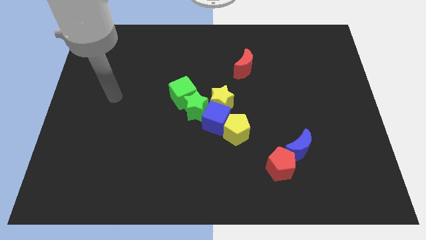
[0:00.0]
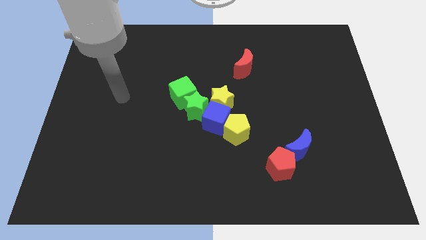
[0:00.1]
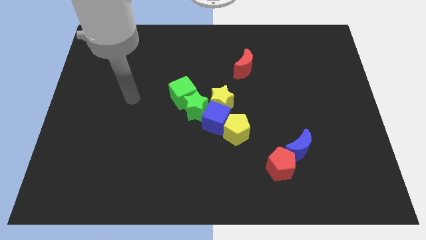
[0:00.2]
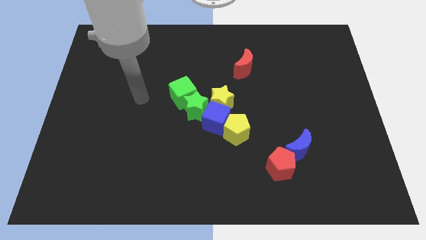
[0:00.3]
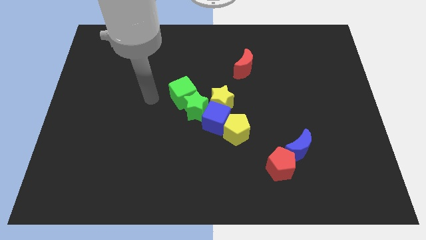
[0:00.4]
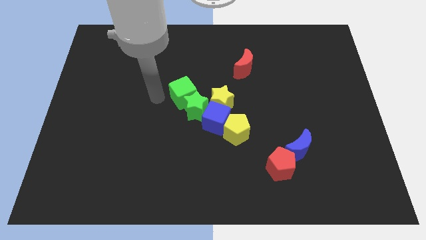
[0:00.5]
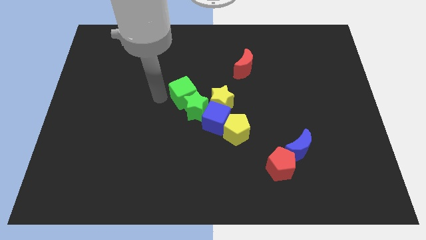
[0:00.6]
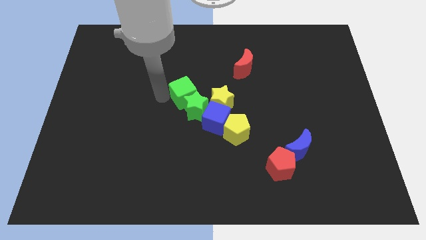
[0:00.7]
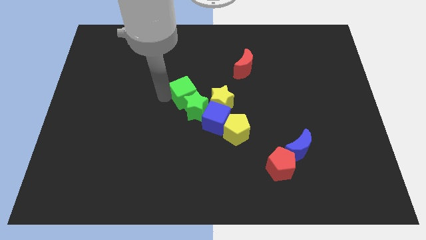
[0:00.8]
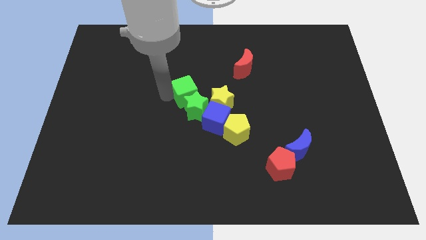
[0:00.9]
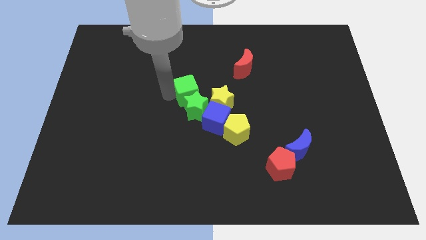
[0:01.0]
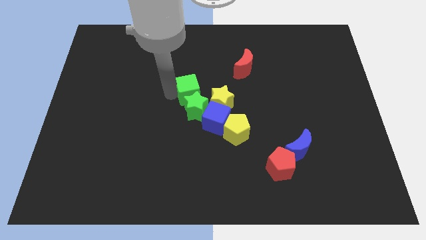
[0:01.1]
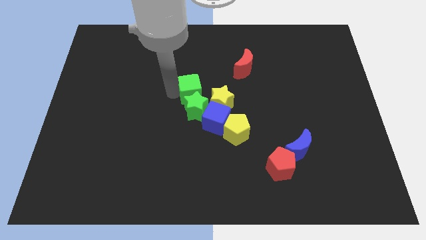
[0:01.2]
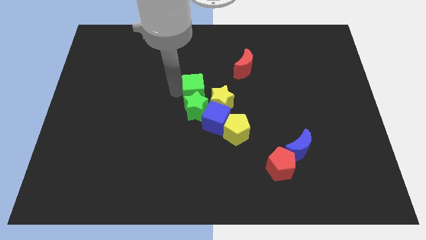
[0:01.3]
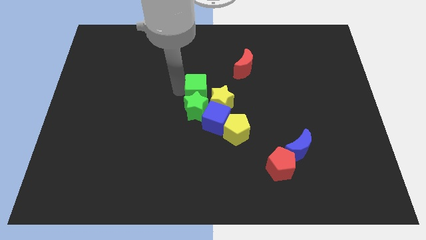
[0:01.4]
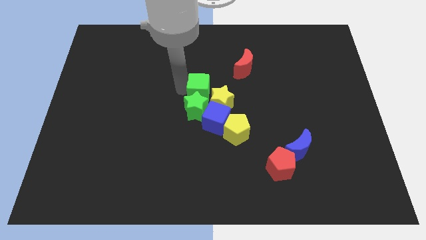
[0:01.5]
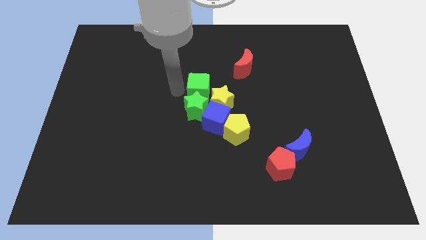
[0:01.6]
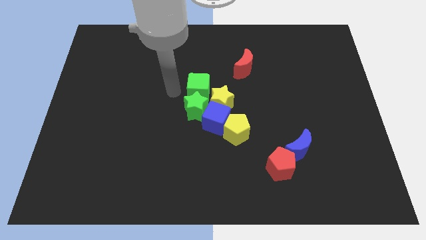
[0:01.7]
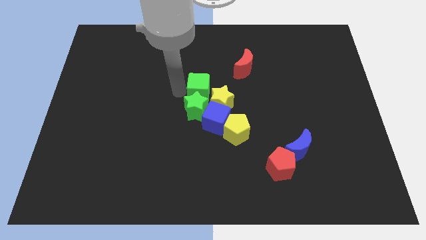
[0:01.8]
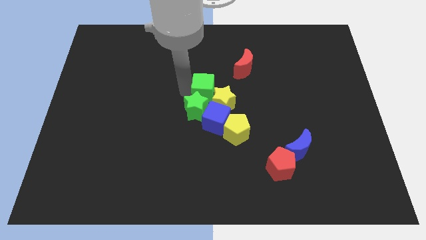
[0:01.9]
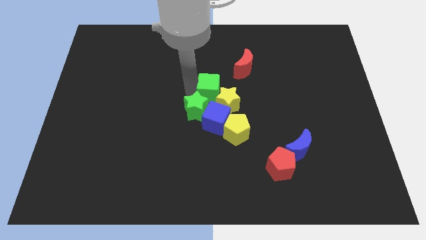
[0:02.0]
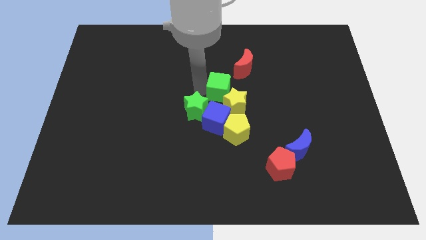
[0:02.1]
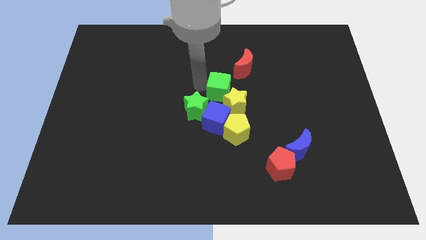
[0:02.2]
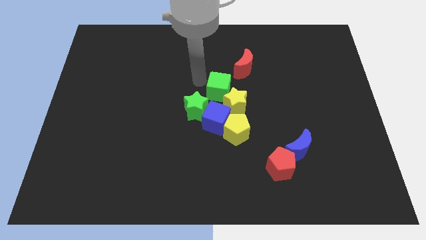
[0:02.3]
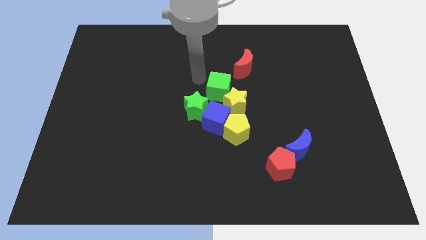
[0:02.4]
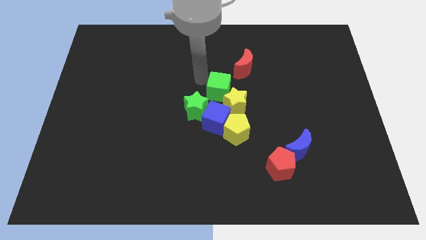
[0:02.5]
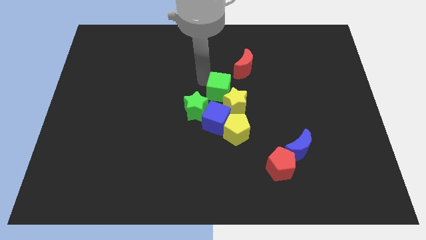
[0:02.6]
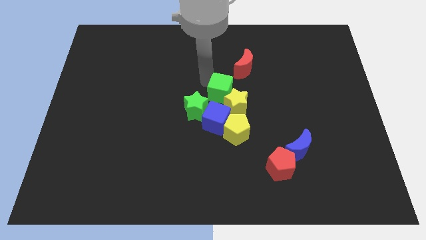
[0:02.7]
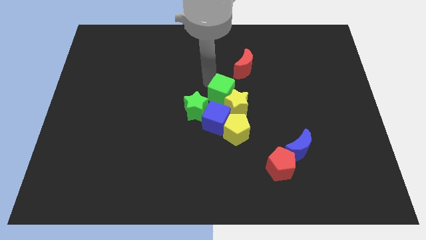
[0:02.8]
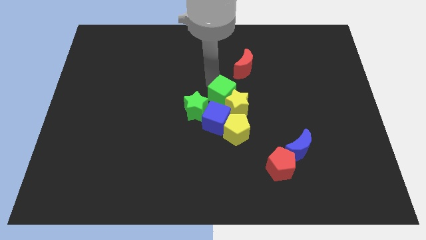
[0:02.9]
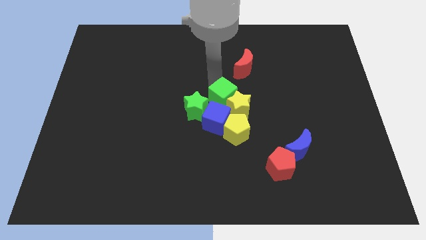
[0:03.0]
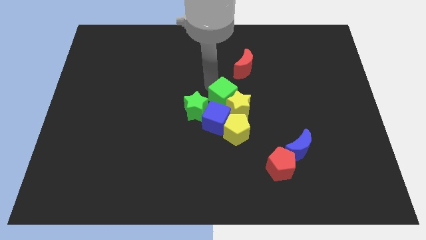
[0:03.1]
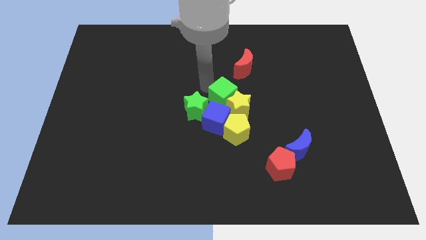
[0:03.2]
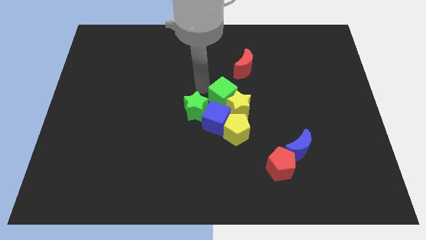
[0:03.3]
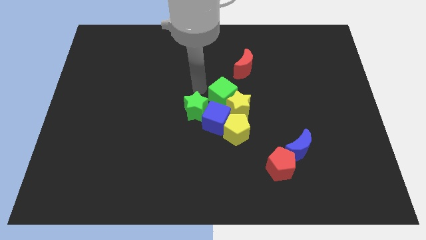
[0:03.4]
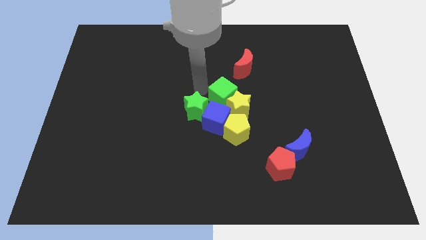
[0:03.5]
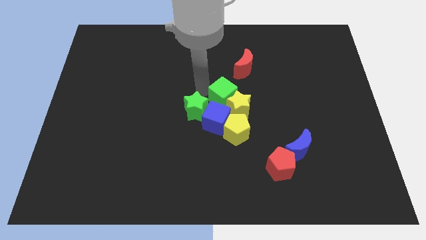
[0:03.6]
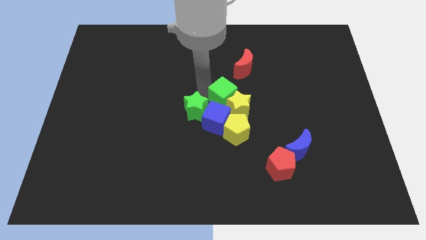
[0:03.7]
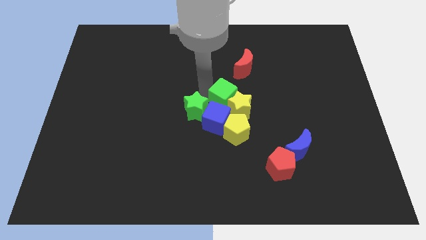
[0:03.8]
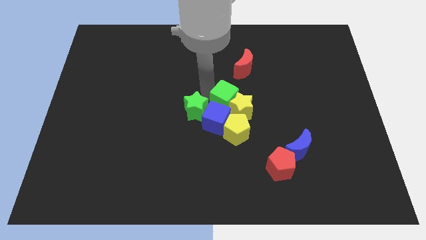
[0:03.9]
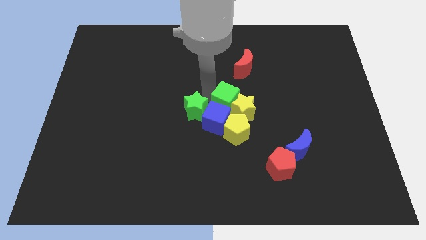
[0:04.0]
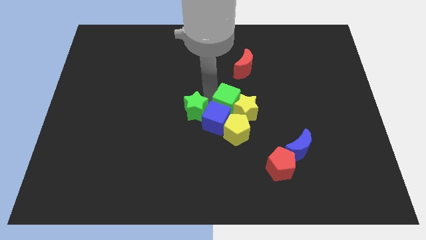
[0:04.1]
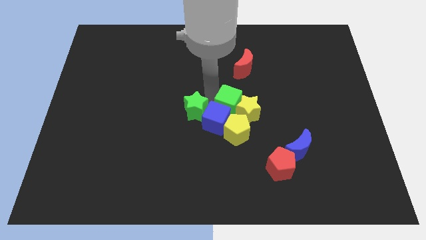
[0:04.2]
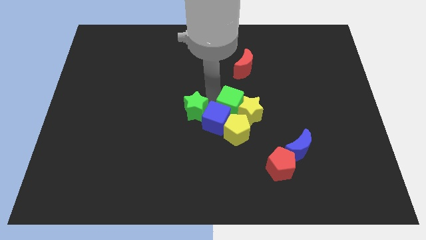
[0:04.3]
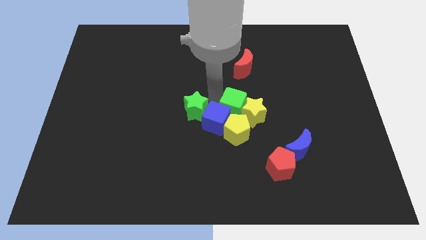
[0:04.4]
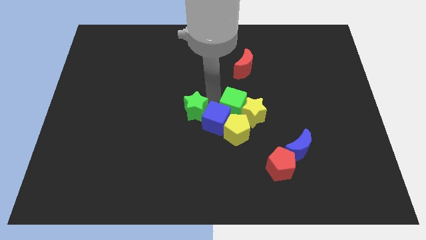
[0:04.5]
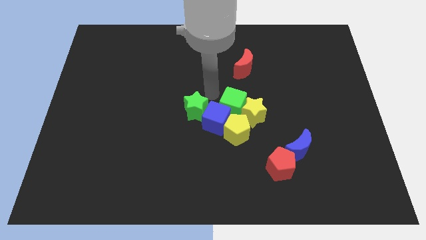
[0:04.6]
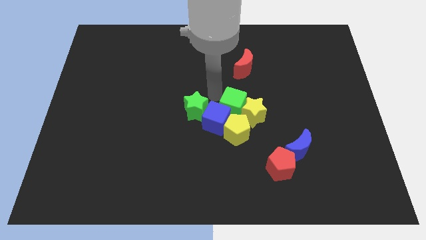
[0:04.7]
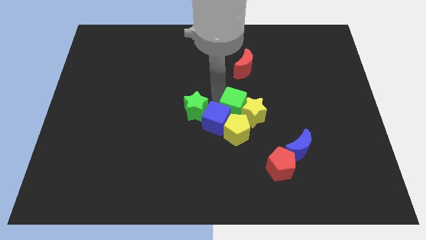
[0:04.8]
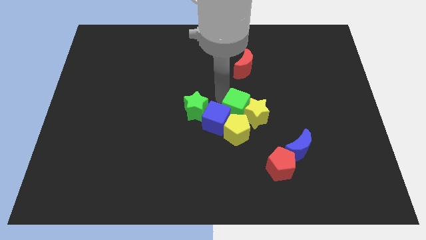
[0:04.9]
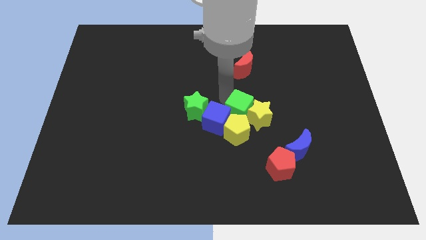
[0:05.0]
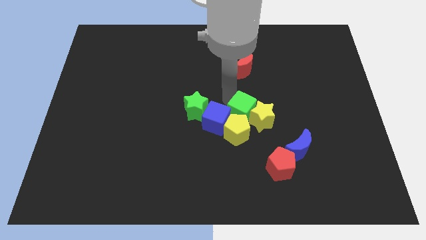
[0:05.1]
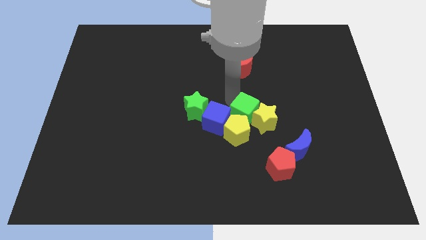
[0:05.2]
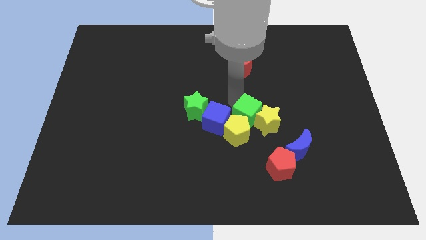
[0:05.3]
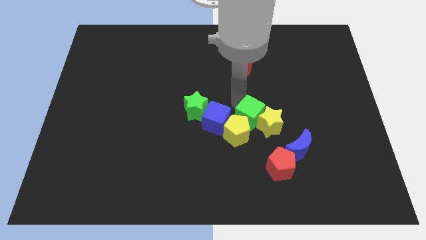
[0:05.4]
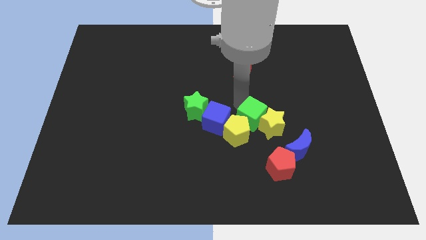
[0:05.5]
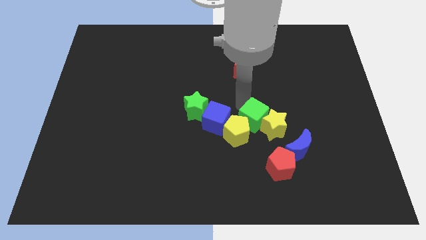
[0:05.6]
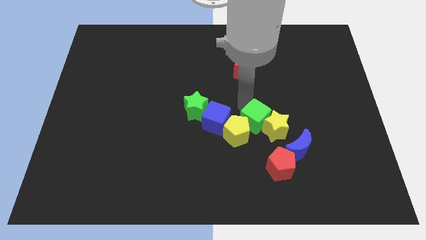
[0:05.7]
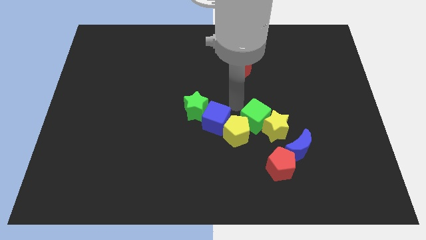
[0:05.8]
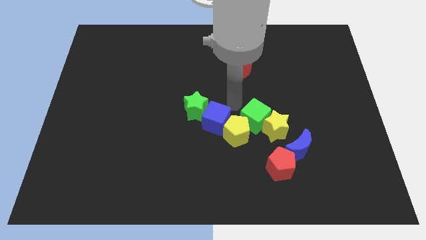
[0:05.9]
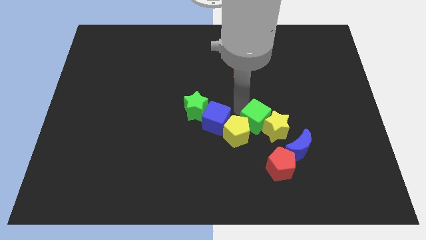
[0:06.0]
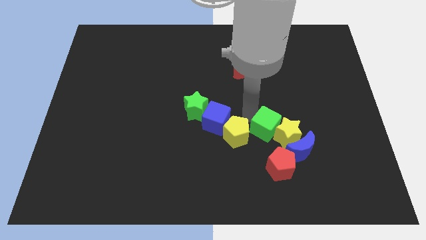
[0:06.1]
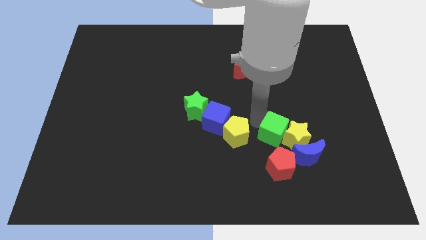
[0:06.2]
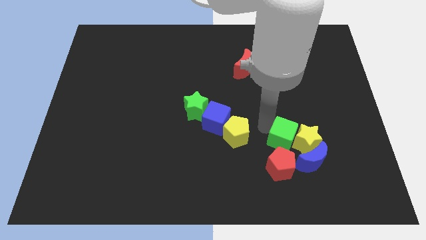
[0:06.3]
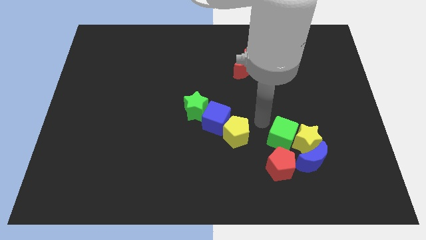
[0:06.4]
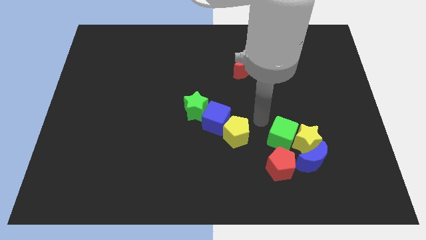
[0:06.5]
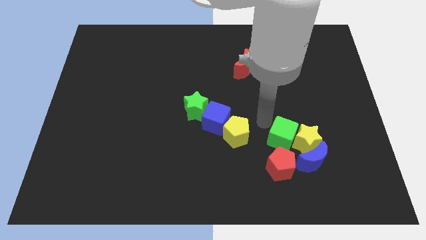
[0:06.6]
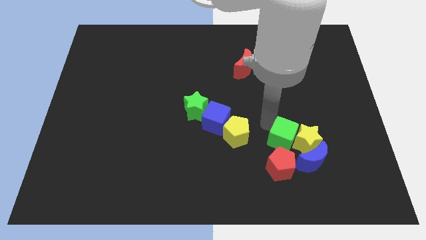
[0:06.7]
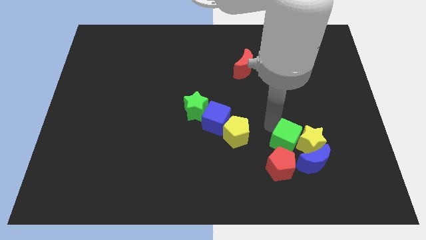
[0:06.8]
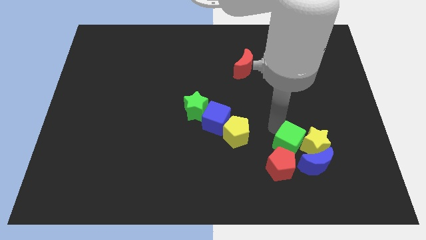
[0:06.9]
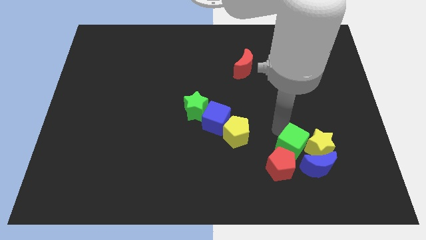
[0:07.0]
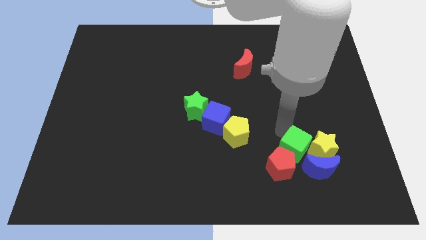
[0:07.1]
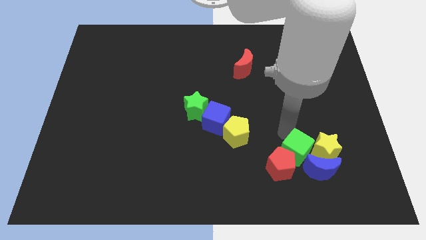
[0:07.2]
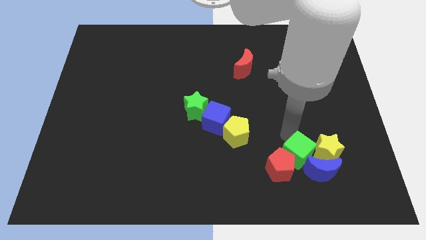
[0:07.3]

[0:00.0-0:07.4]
move the green cube towards the blue moon
